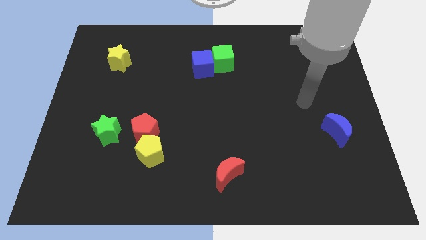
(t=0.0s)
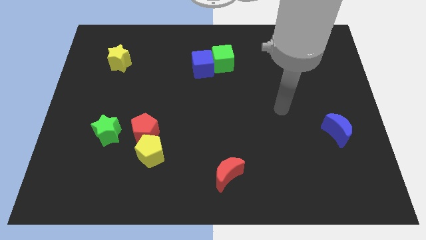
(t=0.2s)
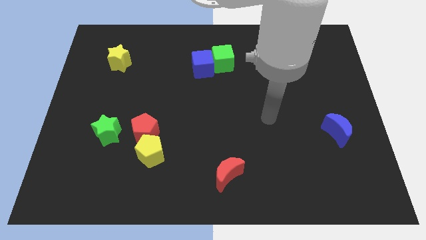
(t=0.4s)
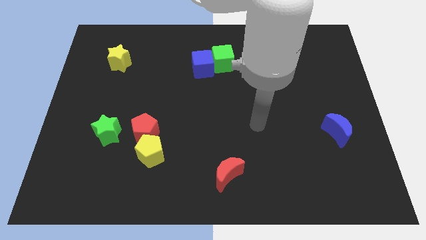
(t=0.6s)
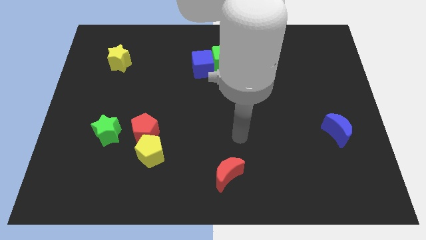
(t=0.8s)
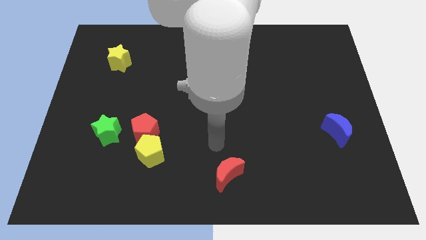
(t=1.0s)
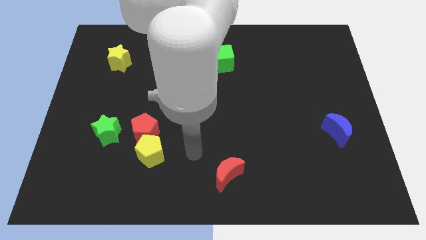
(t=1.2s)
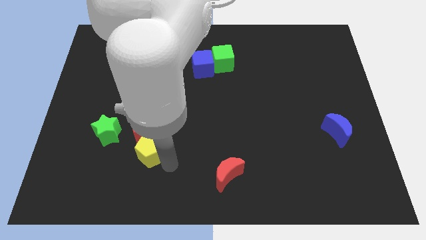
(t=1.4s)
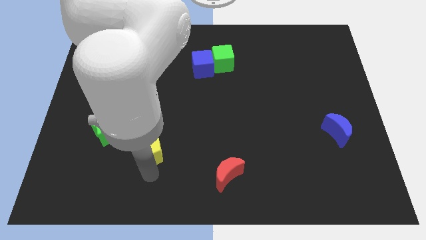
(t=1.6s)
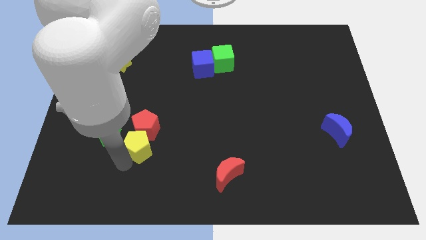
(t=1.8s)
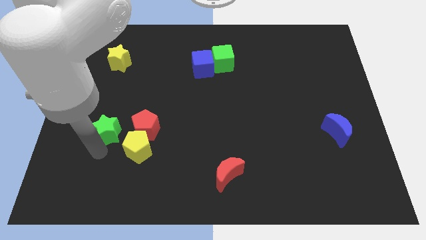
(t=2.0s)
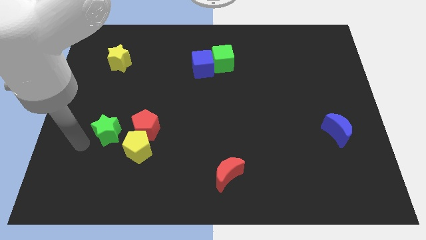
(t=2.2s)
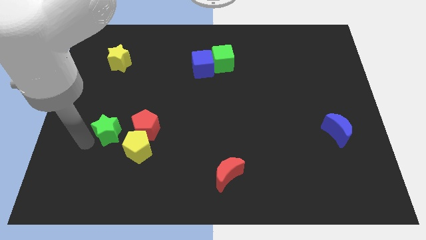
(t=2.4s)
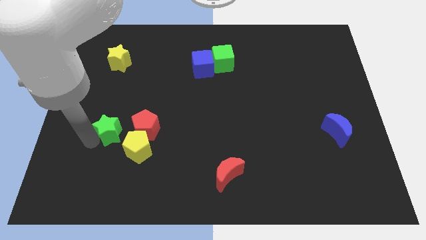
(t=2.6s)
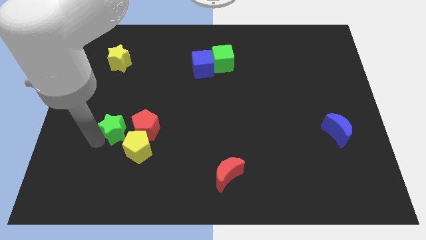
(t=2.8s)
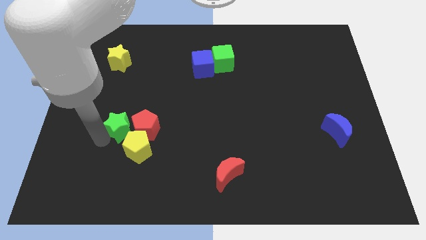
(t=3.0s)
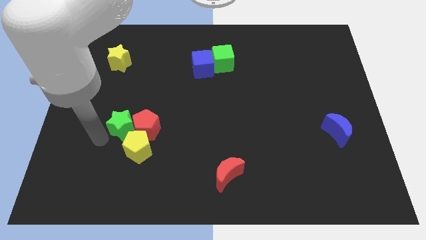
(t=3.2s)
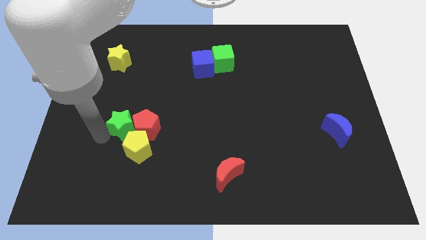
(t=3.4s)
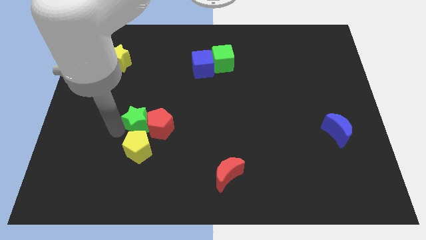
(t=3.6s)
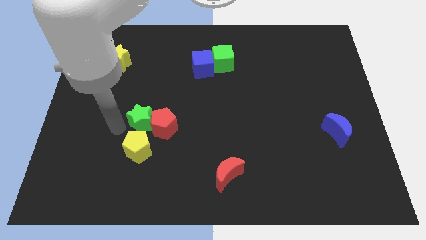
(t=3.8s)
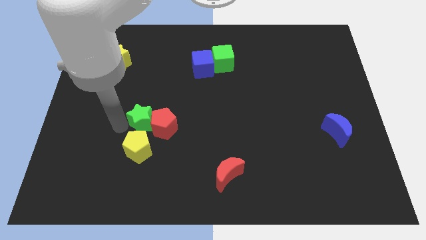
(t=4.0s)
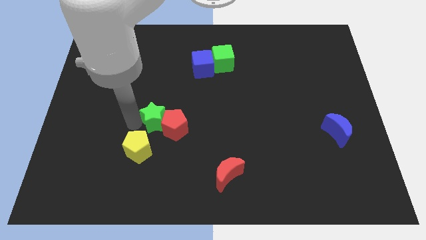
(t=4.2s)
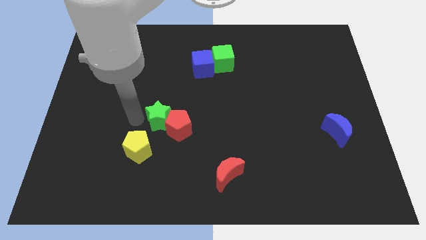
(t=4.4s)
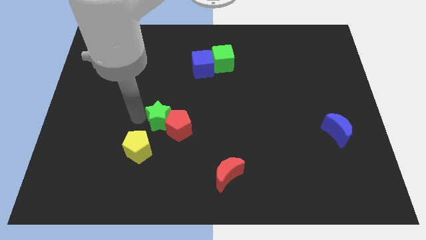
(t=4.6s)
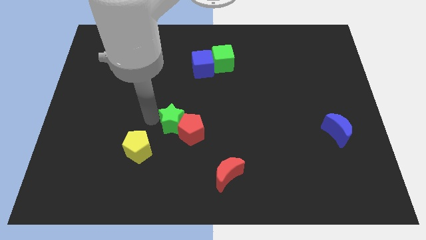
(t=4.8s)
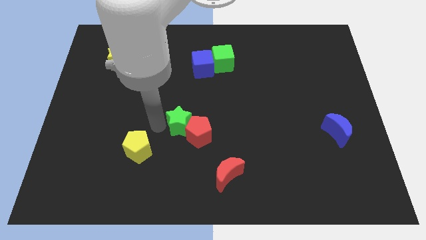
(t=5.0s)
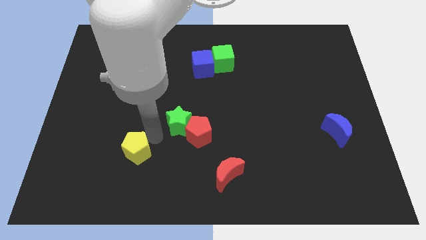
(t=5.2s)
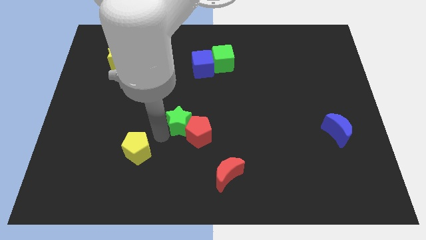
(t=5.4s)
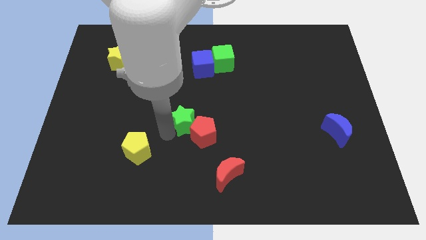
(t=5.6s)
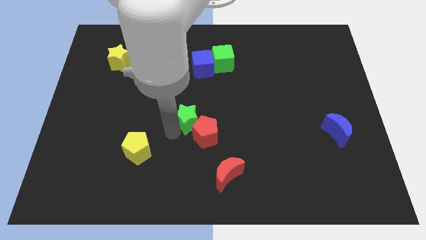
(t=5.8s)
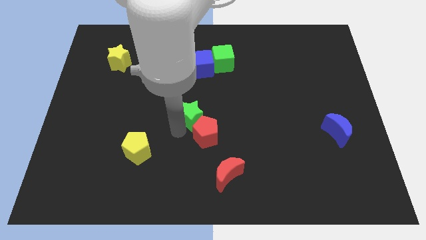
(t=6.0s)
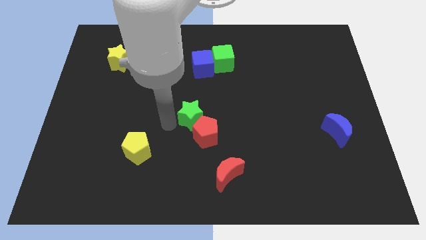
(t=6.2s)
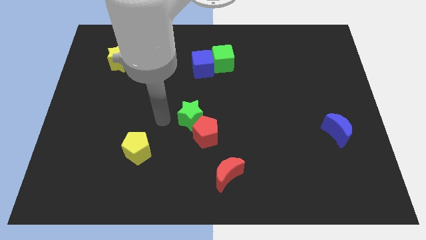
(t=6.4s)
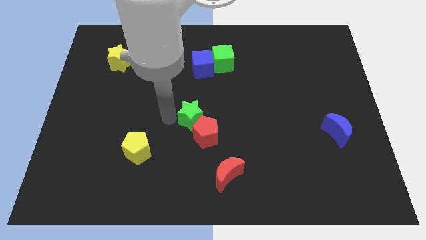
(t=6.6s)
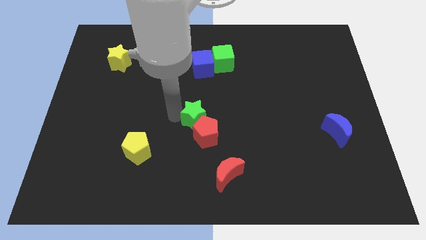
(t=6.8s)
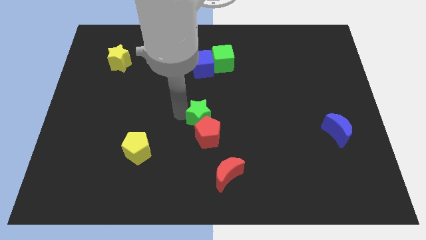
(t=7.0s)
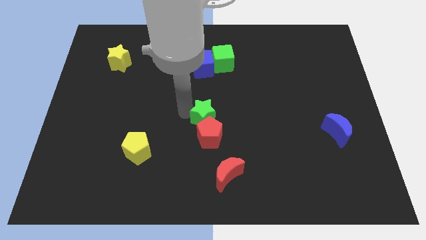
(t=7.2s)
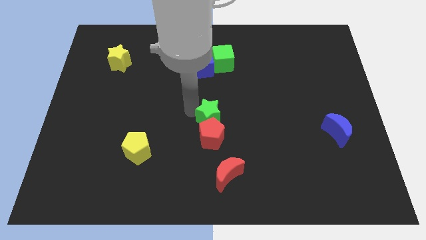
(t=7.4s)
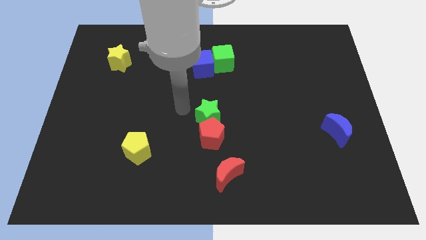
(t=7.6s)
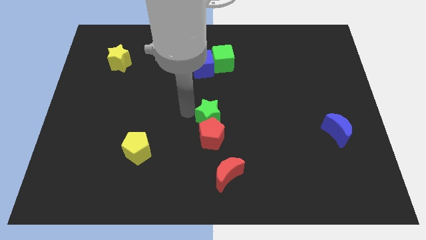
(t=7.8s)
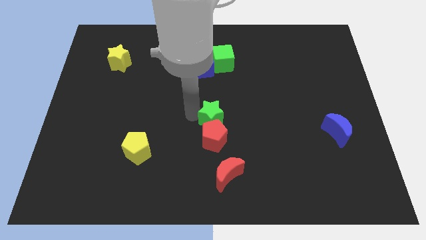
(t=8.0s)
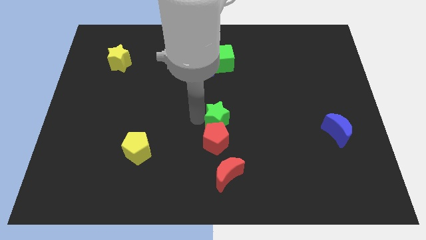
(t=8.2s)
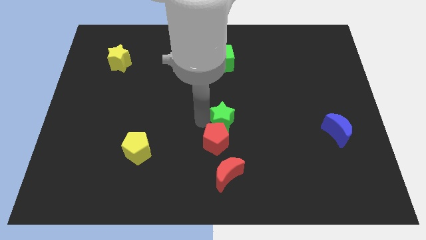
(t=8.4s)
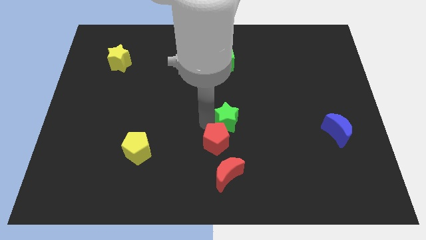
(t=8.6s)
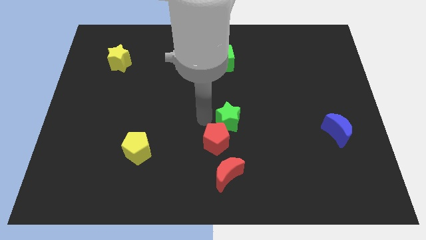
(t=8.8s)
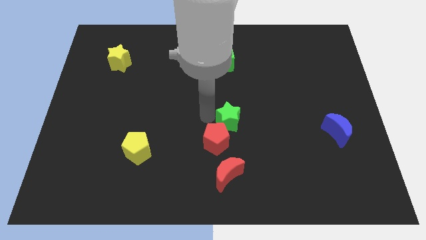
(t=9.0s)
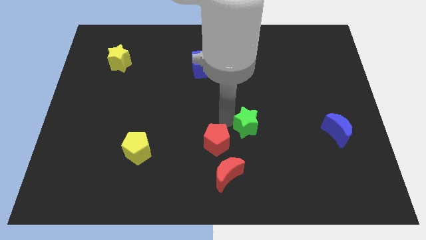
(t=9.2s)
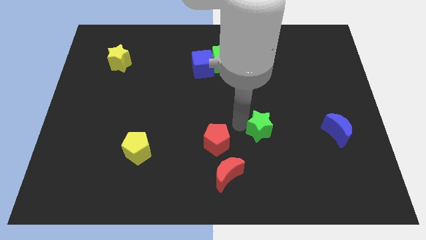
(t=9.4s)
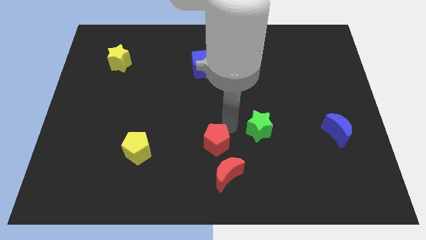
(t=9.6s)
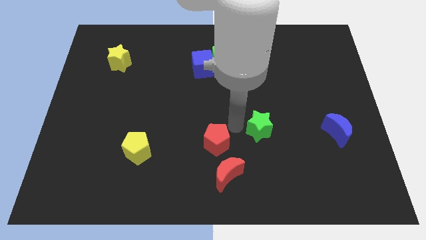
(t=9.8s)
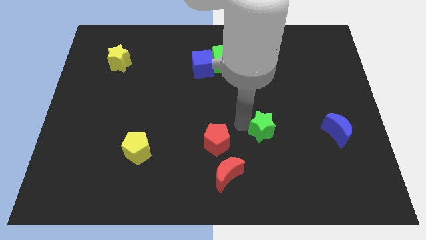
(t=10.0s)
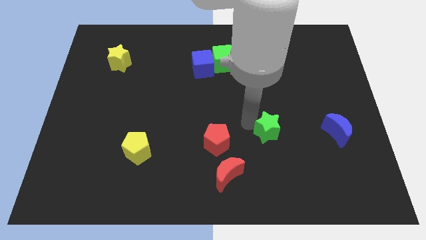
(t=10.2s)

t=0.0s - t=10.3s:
put the green star to the left side of the blue moon

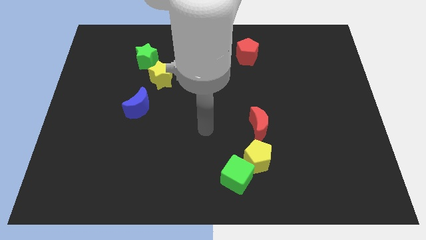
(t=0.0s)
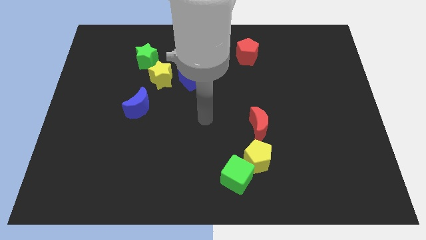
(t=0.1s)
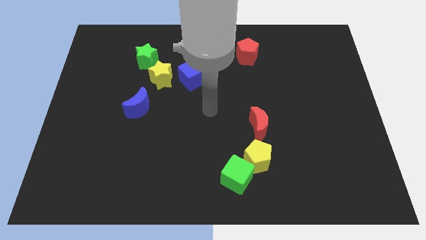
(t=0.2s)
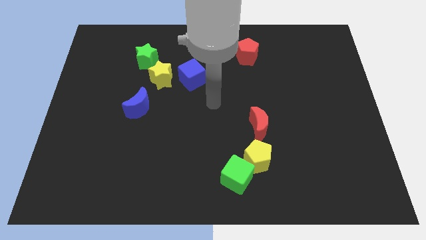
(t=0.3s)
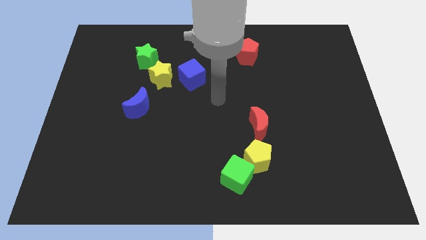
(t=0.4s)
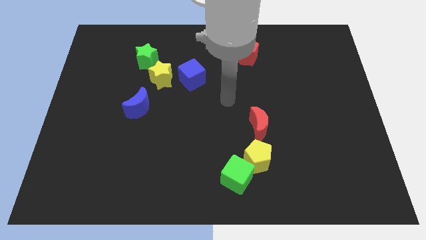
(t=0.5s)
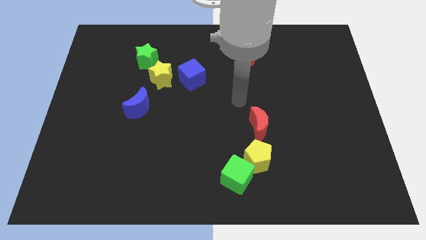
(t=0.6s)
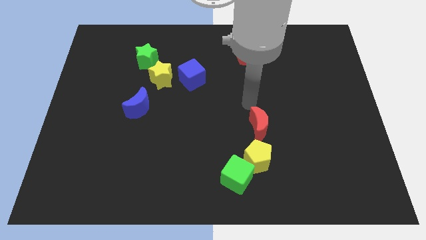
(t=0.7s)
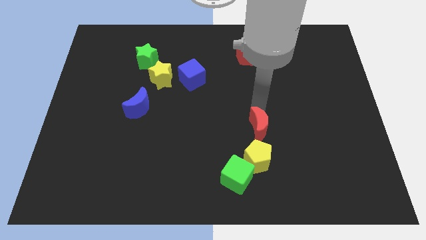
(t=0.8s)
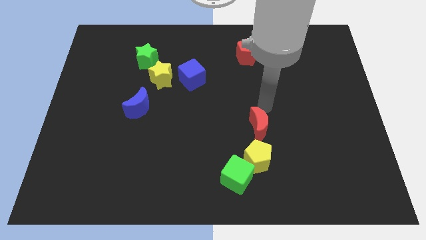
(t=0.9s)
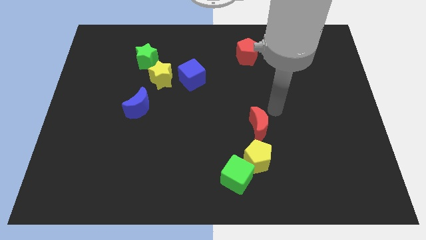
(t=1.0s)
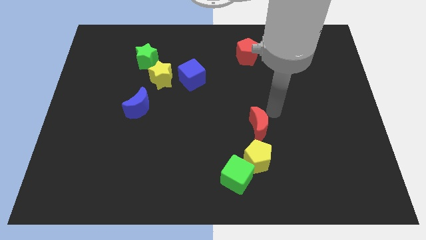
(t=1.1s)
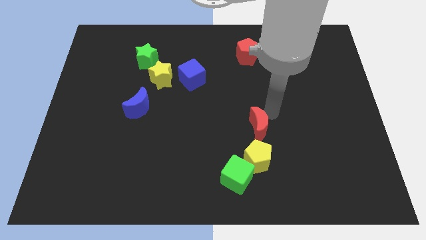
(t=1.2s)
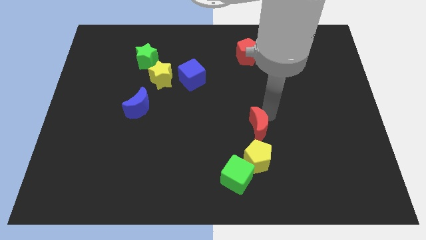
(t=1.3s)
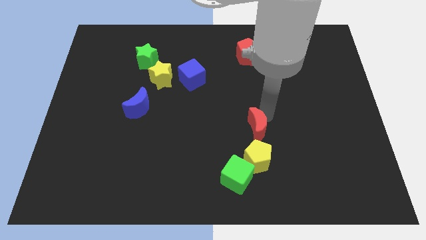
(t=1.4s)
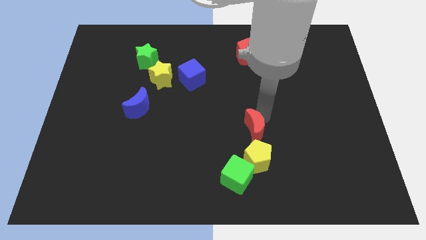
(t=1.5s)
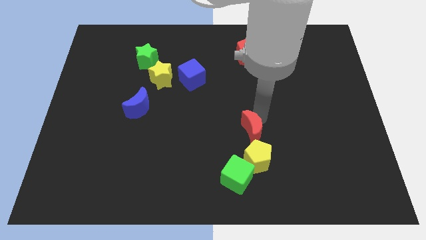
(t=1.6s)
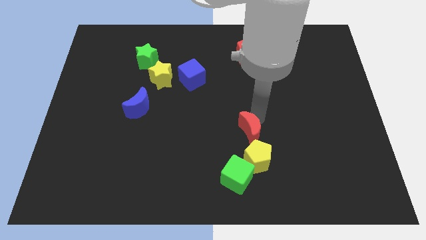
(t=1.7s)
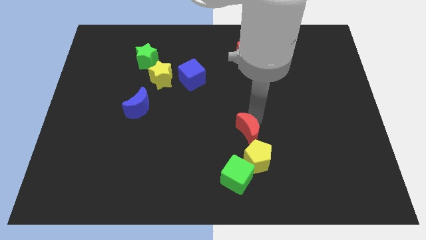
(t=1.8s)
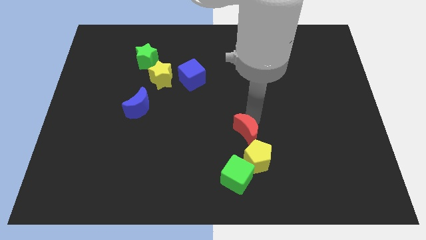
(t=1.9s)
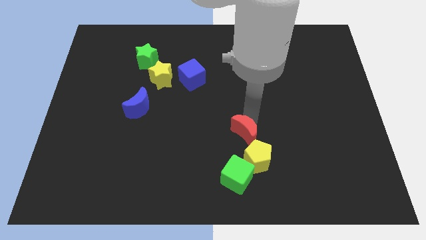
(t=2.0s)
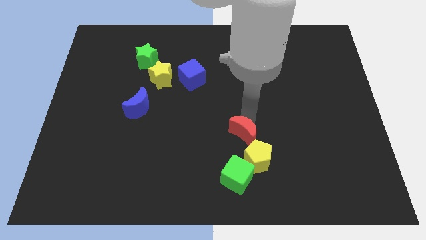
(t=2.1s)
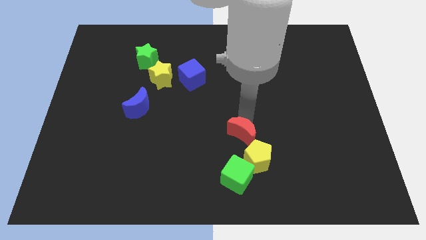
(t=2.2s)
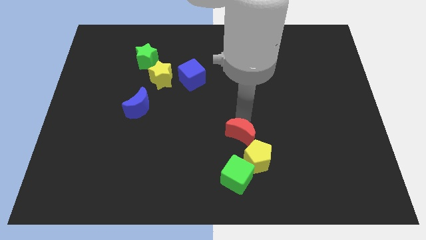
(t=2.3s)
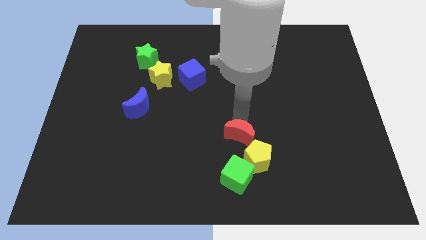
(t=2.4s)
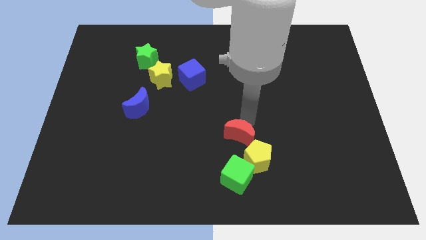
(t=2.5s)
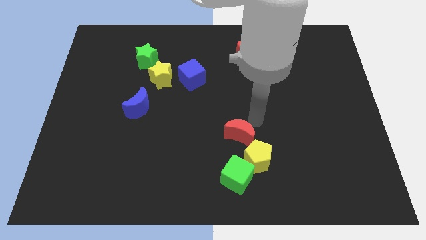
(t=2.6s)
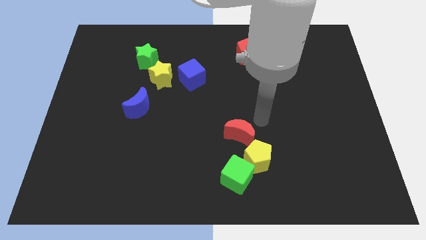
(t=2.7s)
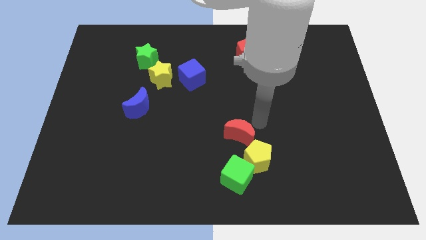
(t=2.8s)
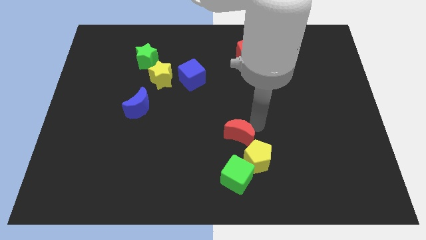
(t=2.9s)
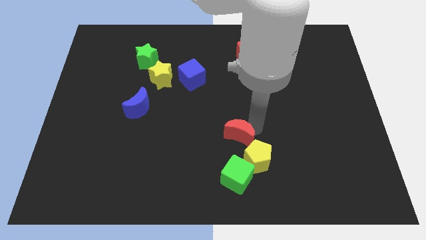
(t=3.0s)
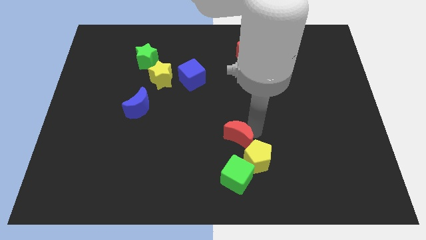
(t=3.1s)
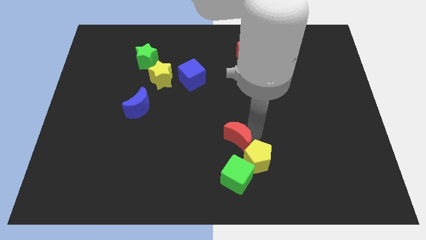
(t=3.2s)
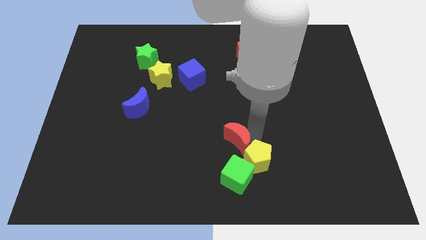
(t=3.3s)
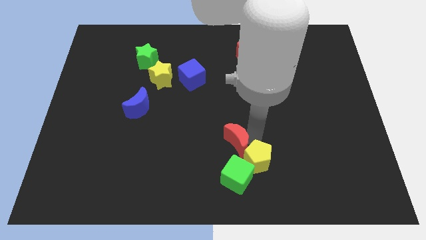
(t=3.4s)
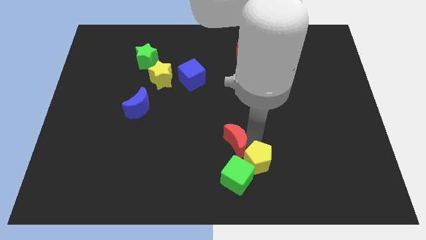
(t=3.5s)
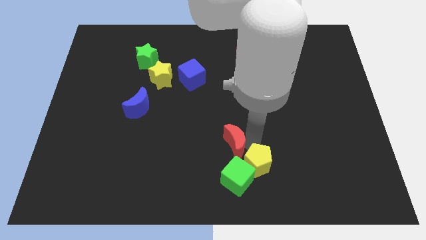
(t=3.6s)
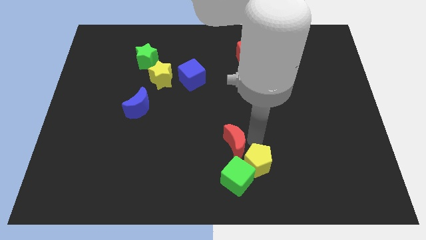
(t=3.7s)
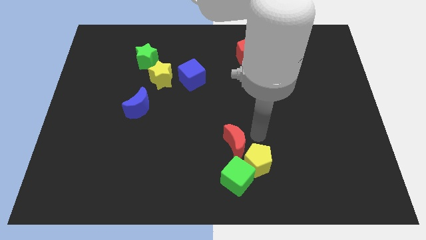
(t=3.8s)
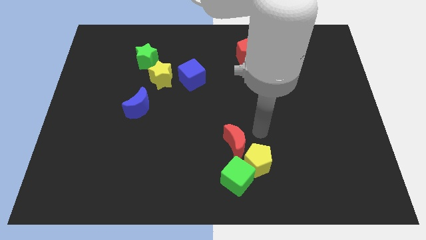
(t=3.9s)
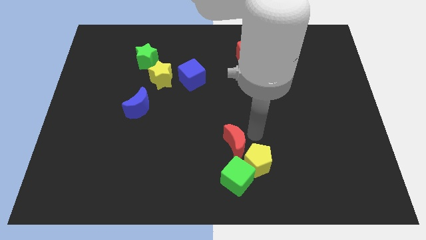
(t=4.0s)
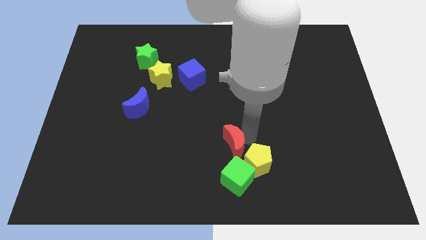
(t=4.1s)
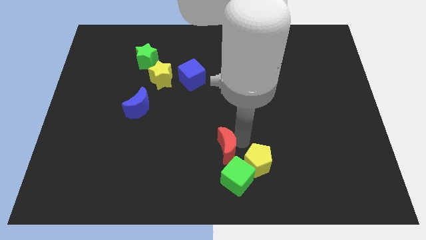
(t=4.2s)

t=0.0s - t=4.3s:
push the red moon to the top left of the green cube
